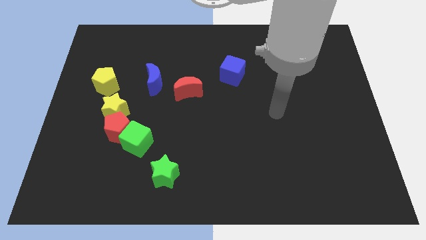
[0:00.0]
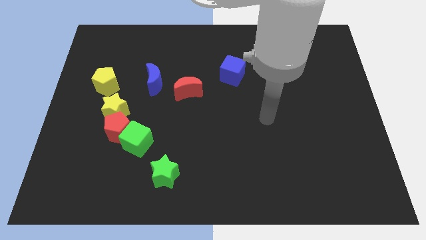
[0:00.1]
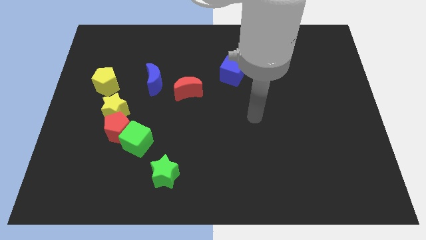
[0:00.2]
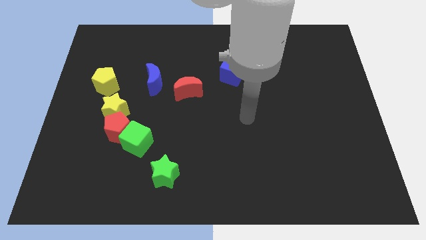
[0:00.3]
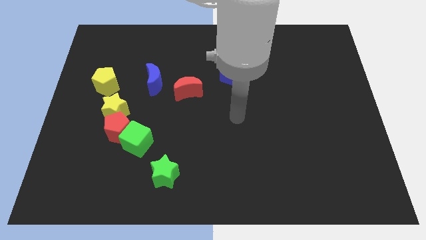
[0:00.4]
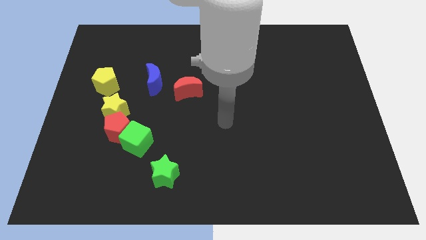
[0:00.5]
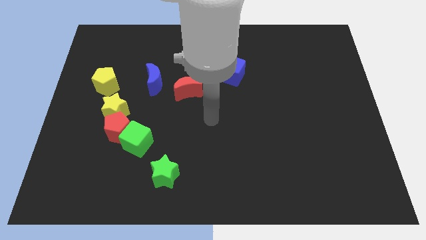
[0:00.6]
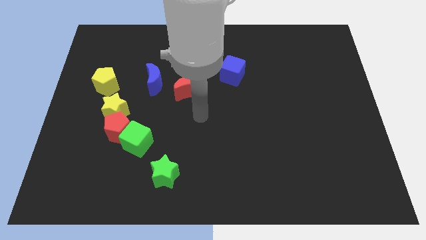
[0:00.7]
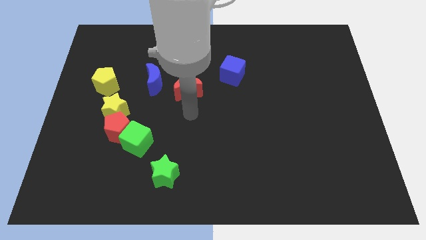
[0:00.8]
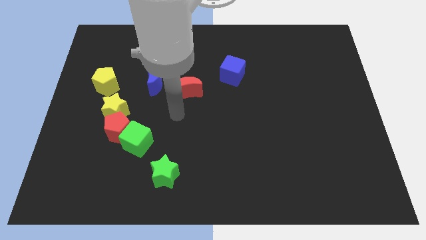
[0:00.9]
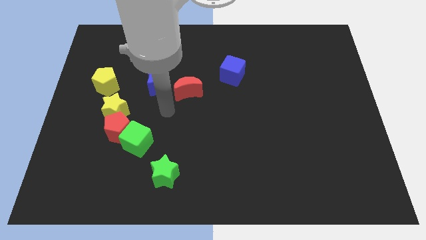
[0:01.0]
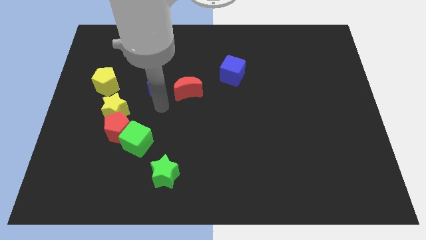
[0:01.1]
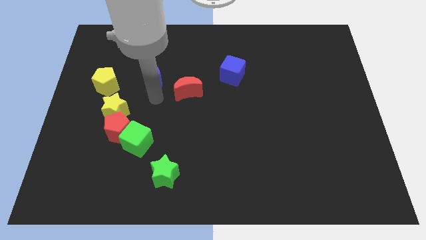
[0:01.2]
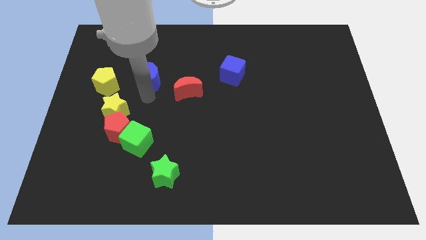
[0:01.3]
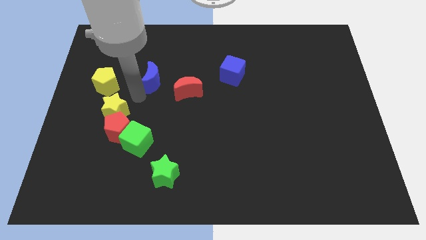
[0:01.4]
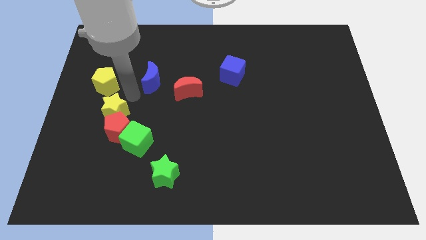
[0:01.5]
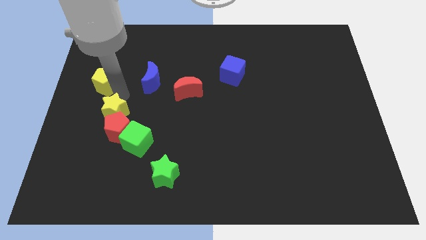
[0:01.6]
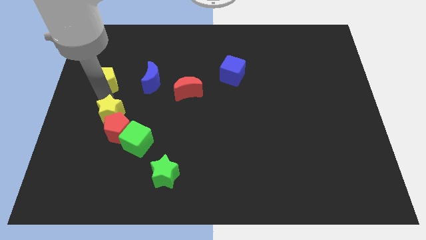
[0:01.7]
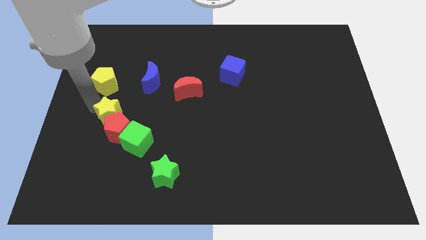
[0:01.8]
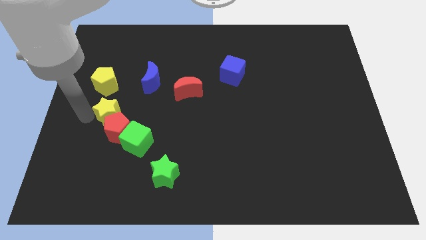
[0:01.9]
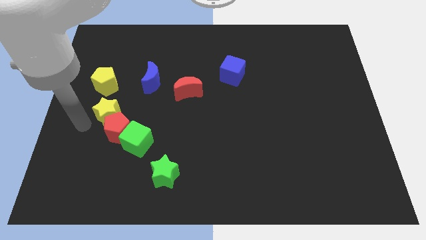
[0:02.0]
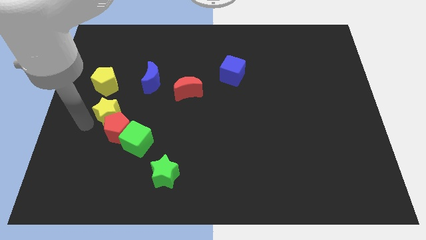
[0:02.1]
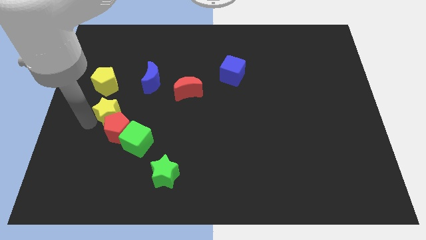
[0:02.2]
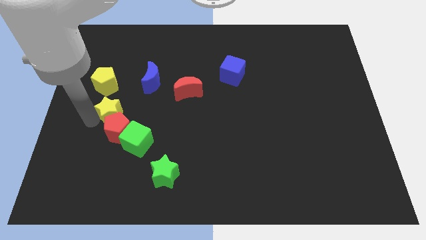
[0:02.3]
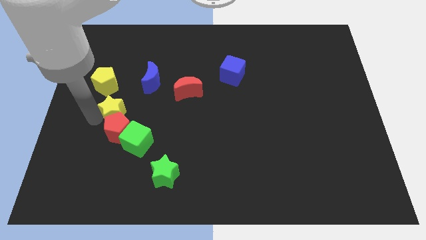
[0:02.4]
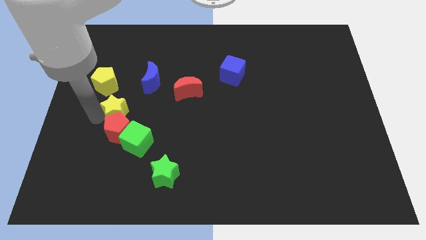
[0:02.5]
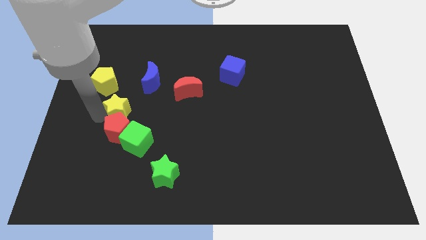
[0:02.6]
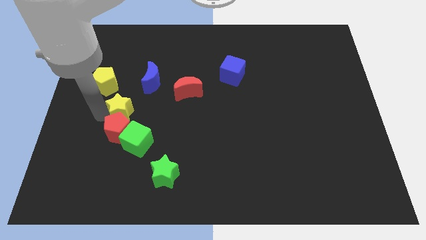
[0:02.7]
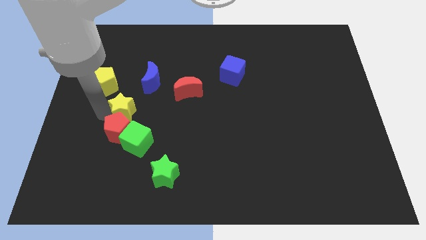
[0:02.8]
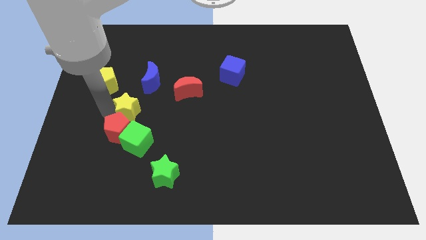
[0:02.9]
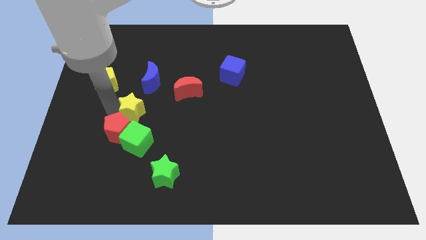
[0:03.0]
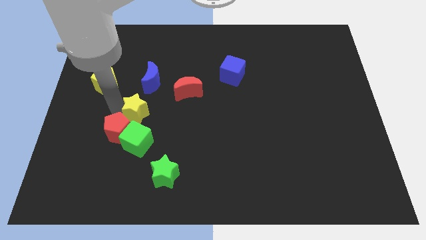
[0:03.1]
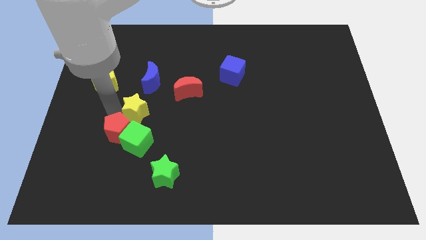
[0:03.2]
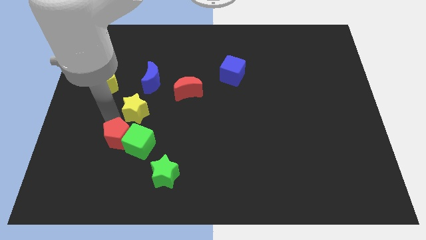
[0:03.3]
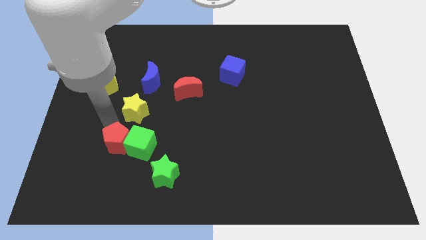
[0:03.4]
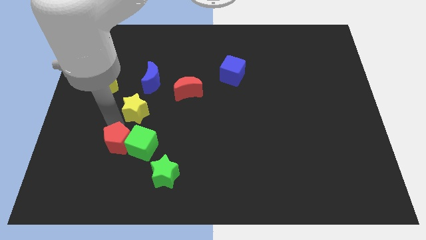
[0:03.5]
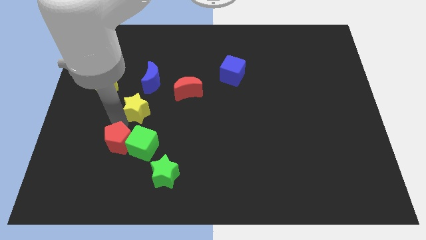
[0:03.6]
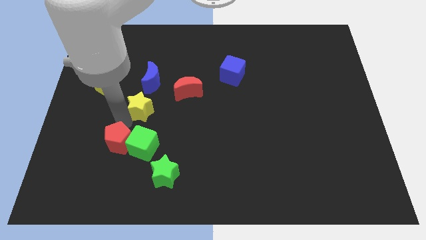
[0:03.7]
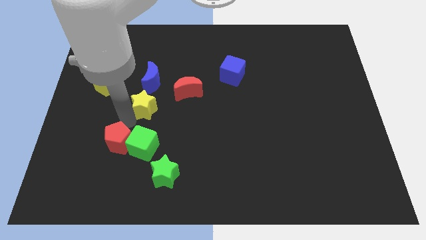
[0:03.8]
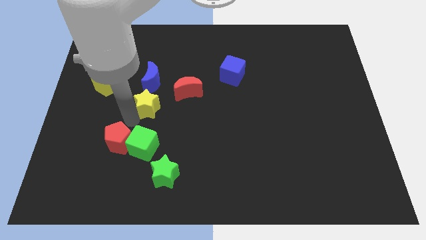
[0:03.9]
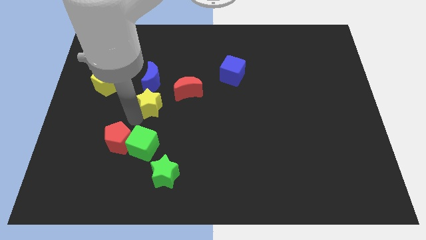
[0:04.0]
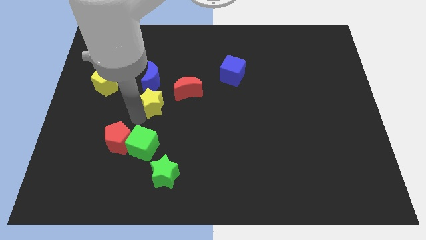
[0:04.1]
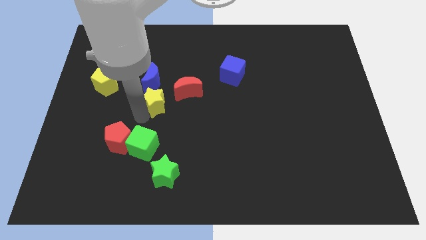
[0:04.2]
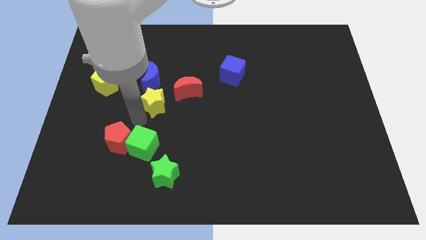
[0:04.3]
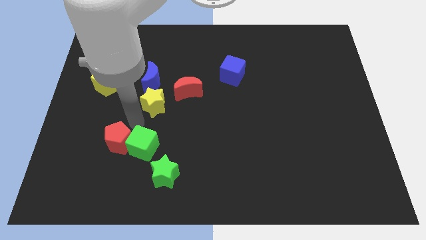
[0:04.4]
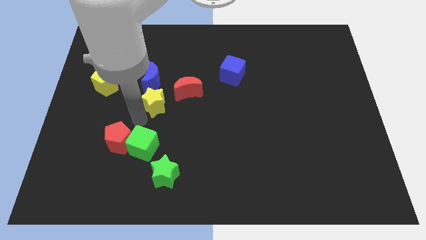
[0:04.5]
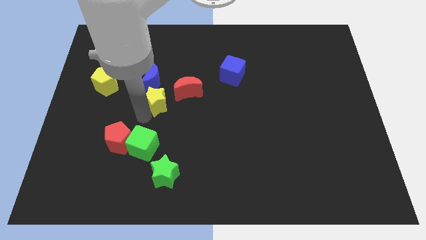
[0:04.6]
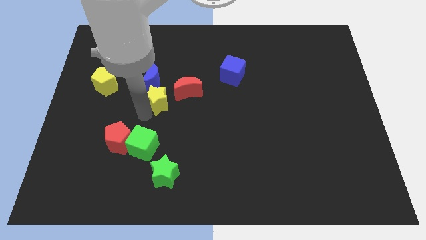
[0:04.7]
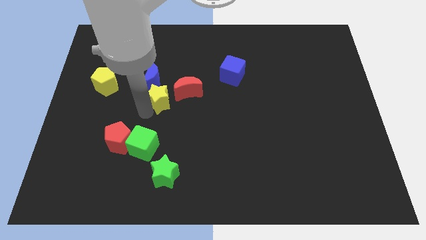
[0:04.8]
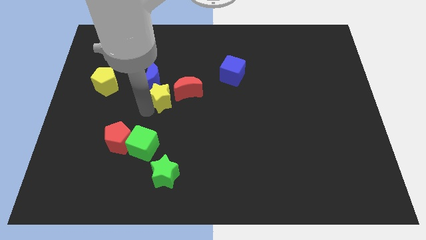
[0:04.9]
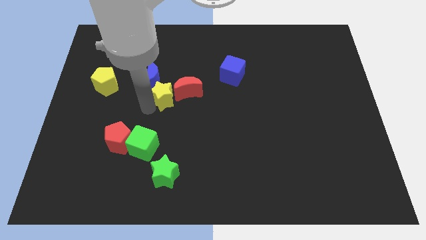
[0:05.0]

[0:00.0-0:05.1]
push the yellow star close to the red moon

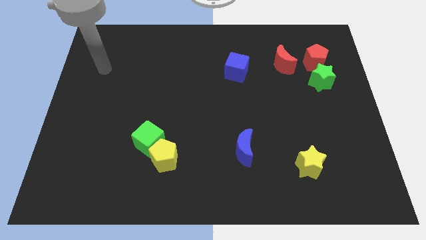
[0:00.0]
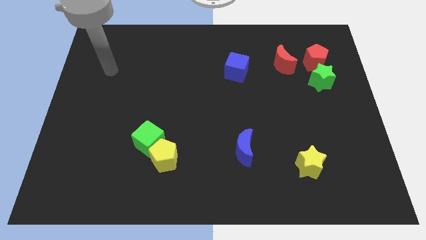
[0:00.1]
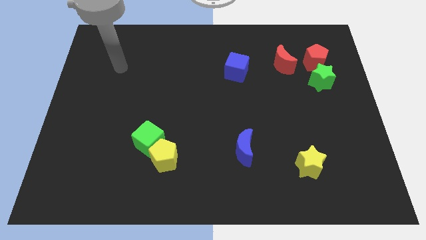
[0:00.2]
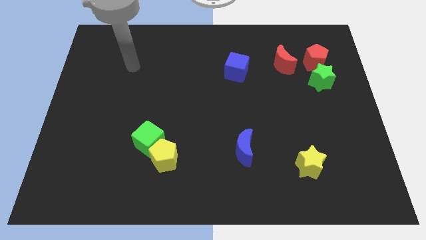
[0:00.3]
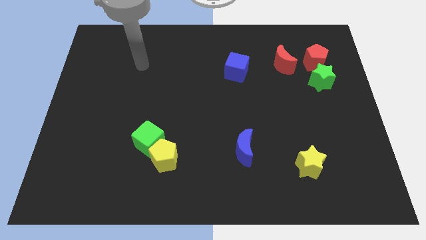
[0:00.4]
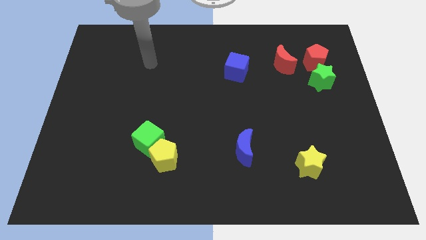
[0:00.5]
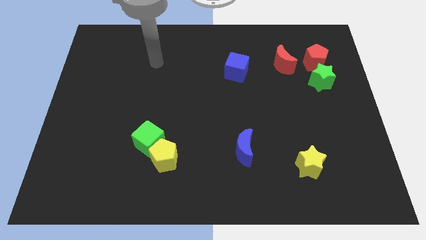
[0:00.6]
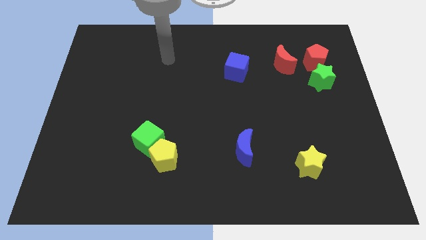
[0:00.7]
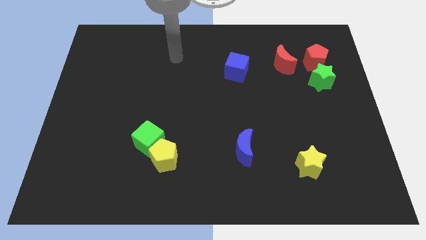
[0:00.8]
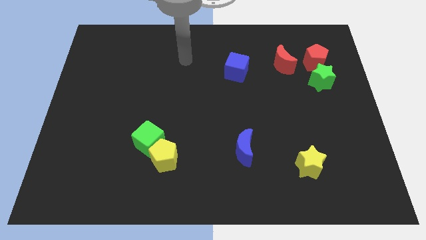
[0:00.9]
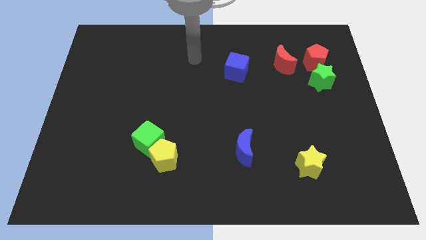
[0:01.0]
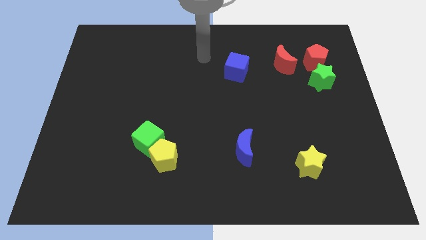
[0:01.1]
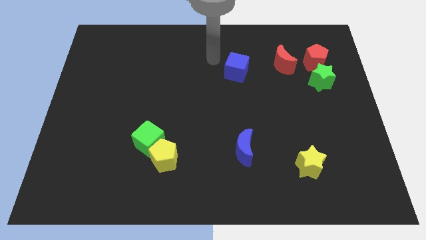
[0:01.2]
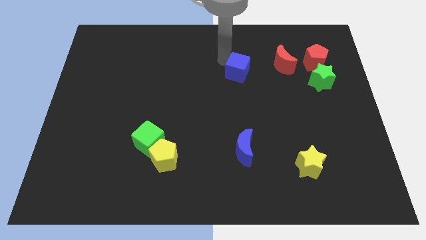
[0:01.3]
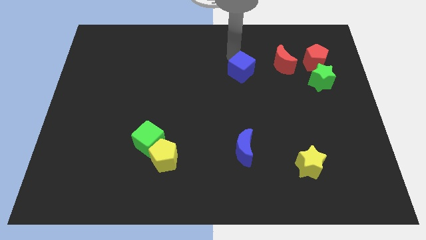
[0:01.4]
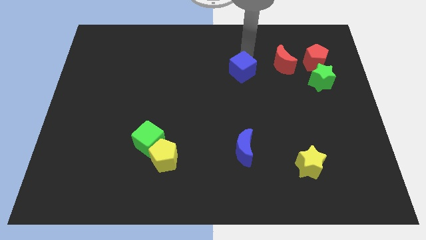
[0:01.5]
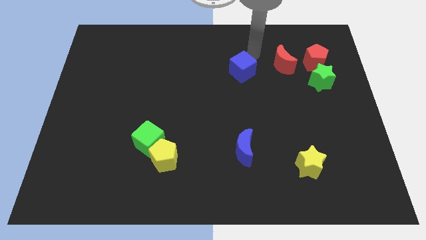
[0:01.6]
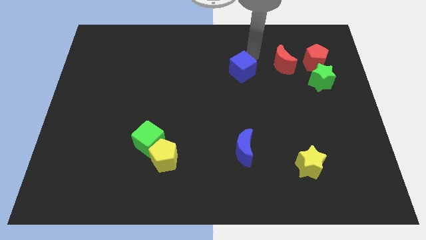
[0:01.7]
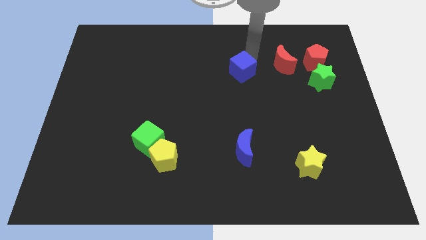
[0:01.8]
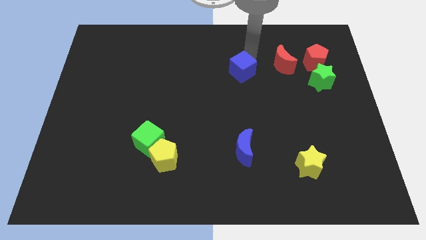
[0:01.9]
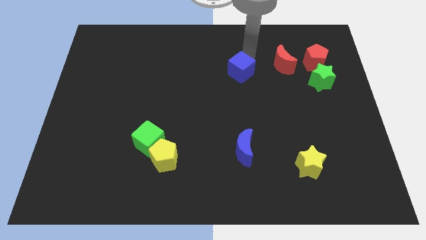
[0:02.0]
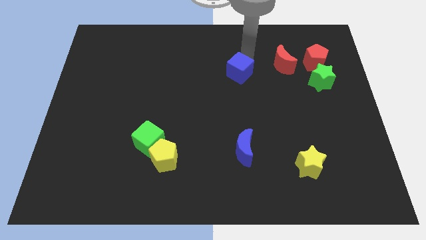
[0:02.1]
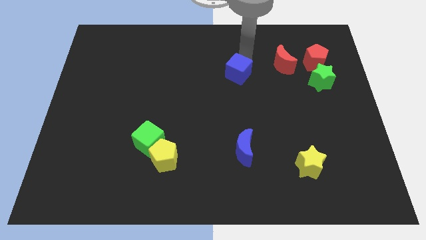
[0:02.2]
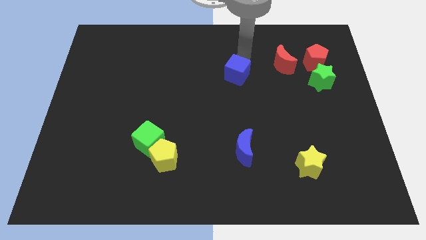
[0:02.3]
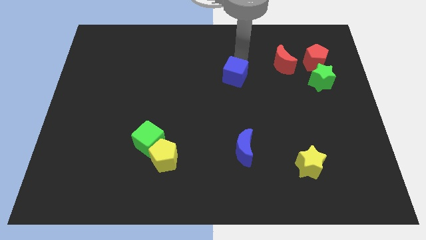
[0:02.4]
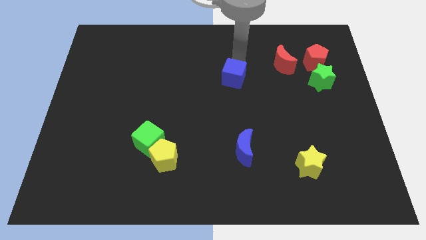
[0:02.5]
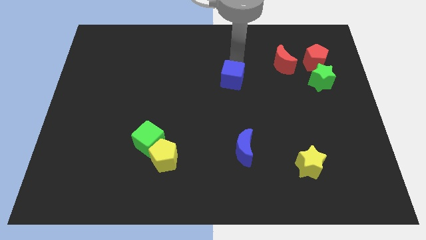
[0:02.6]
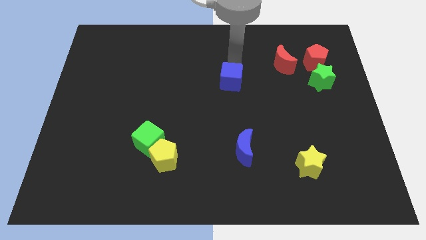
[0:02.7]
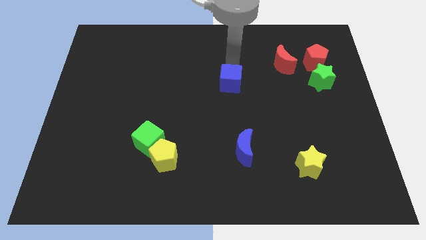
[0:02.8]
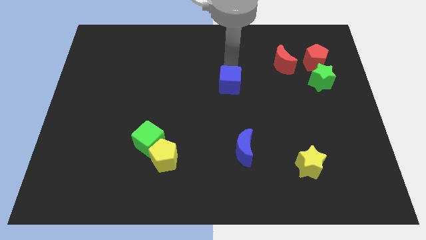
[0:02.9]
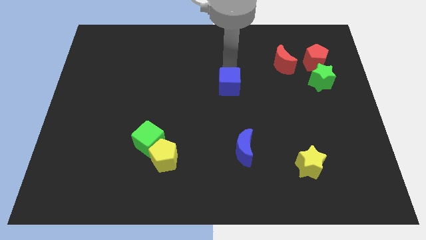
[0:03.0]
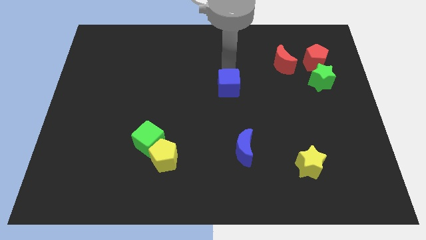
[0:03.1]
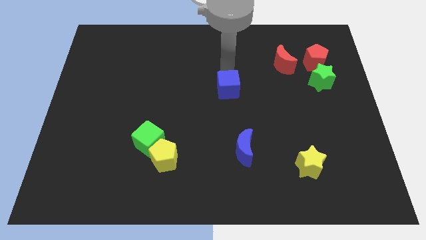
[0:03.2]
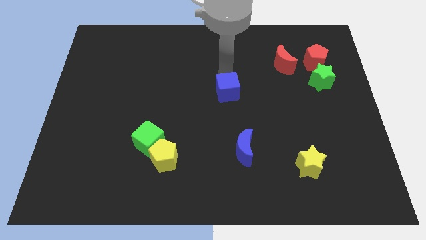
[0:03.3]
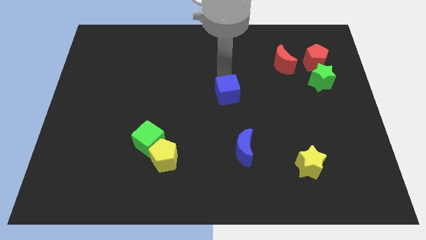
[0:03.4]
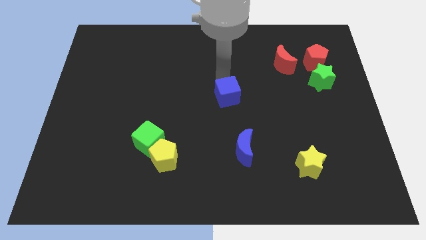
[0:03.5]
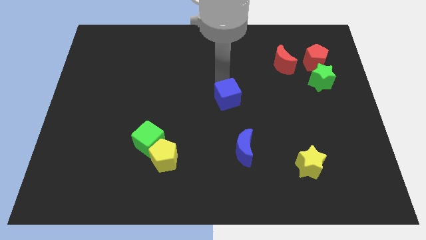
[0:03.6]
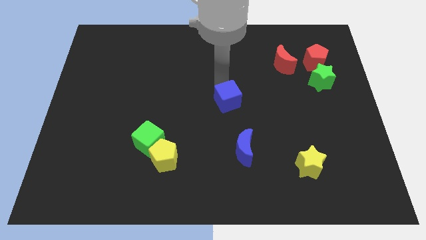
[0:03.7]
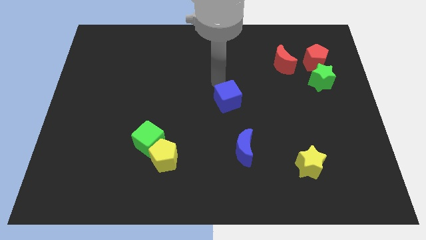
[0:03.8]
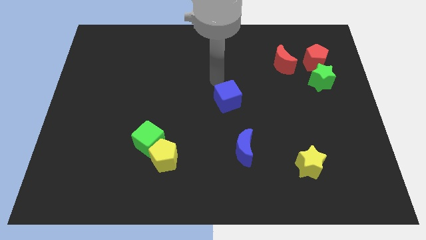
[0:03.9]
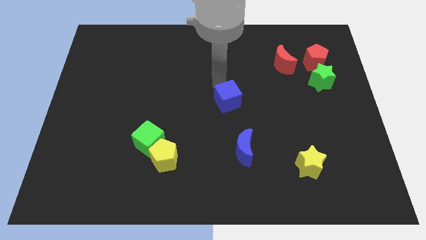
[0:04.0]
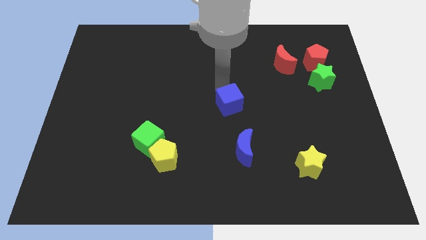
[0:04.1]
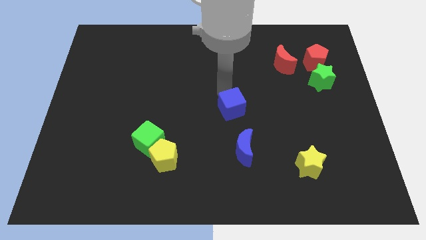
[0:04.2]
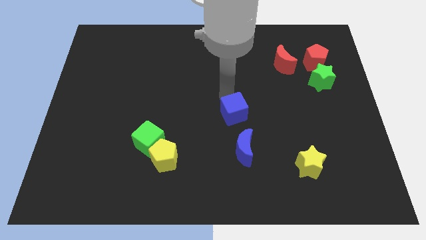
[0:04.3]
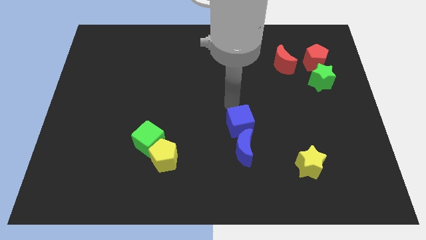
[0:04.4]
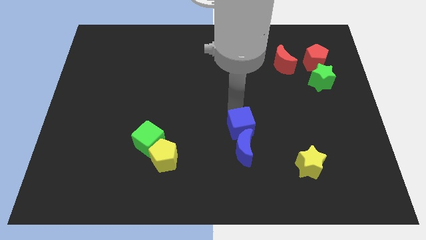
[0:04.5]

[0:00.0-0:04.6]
slide the blue cube close to the blue moon
